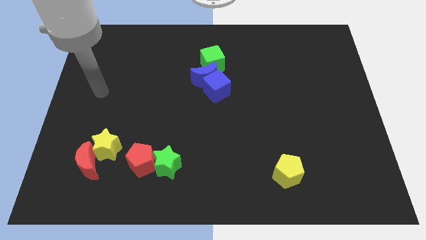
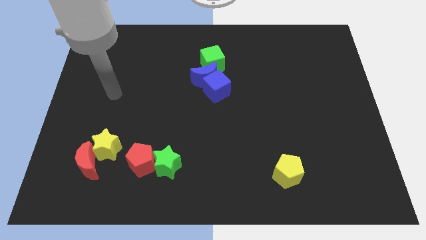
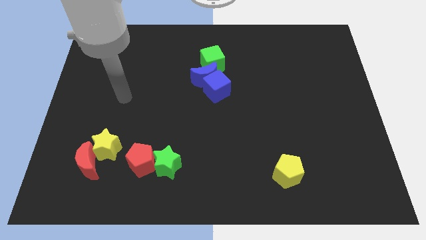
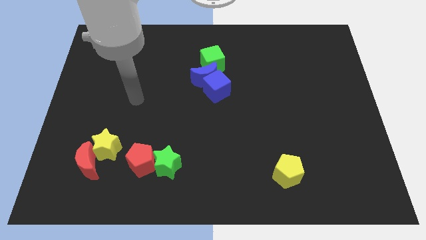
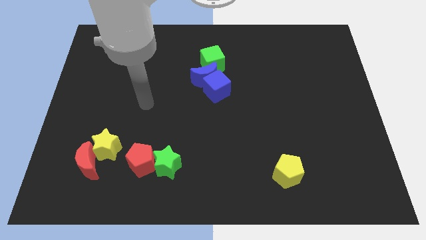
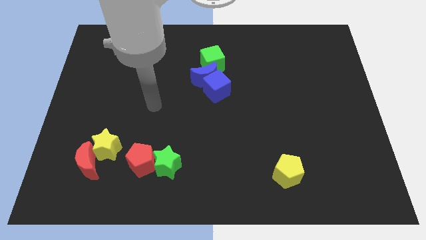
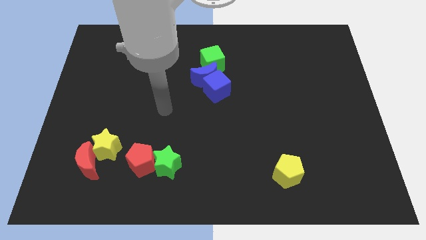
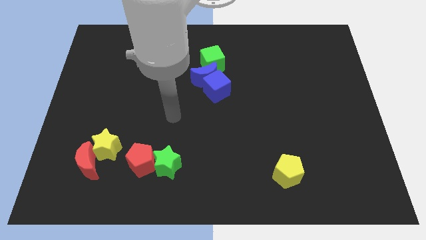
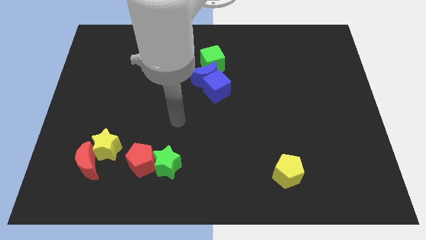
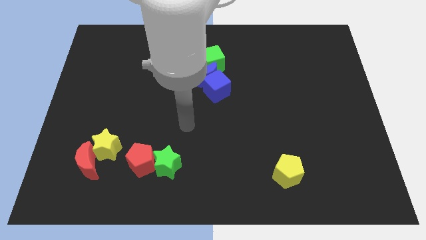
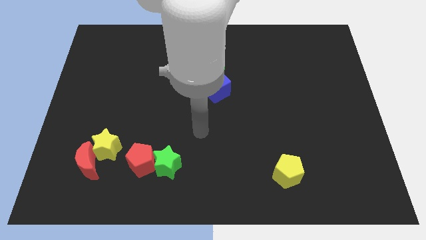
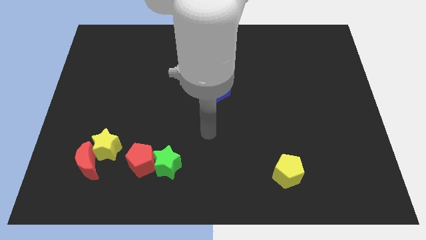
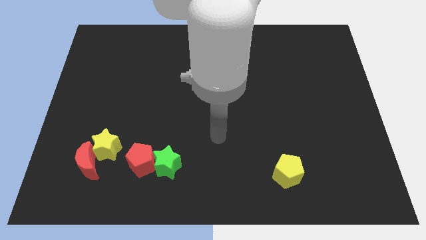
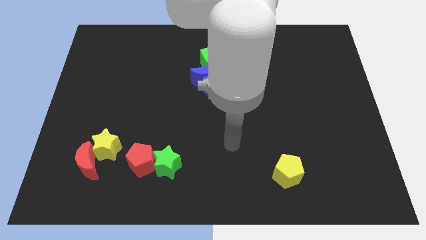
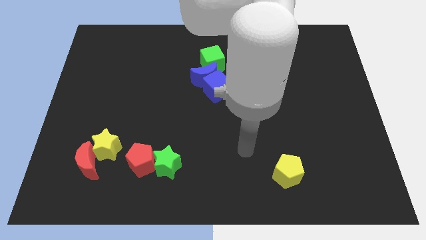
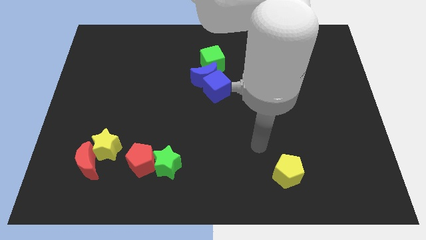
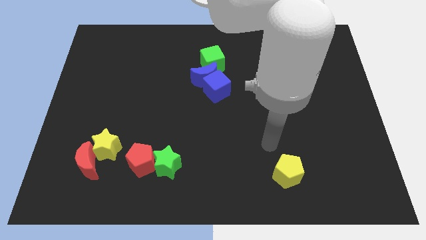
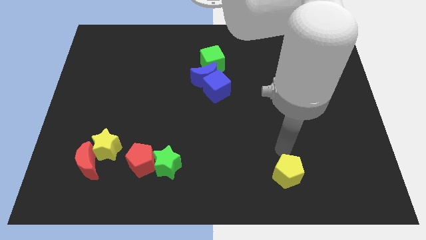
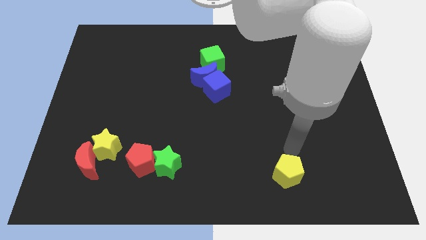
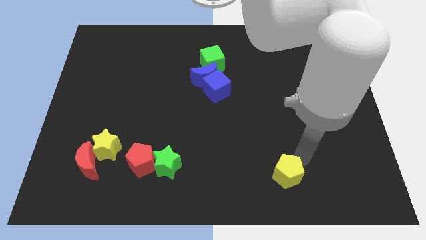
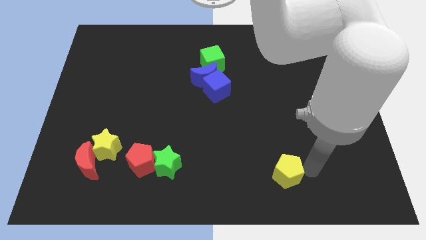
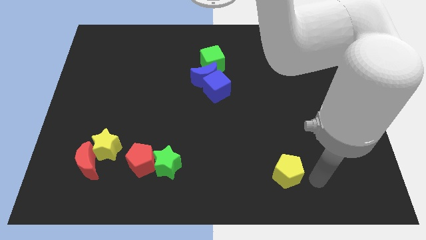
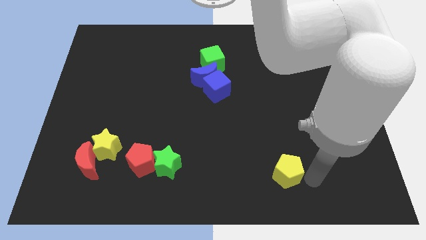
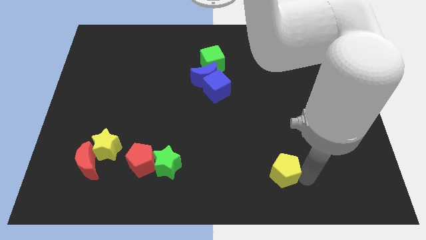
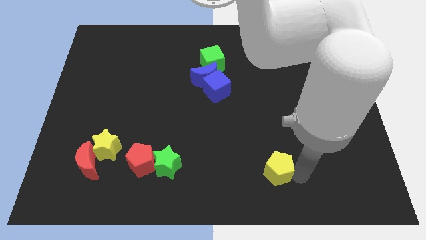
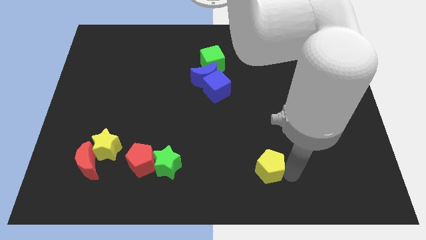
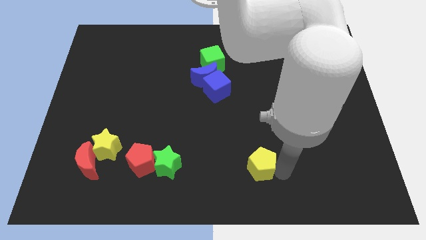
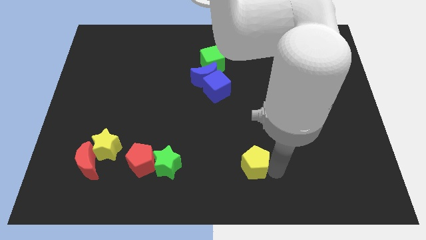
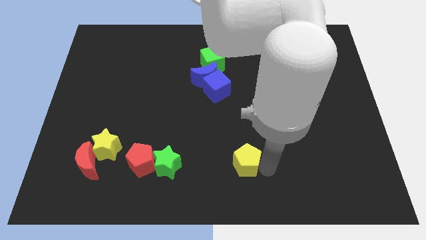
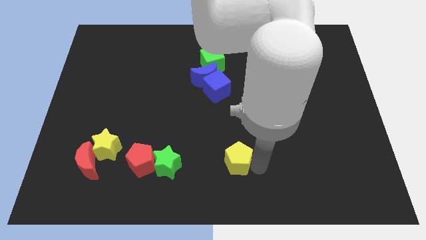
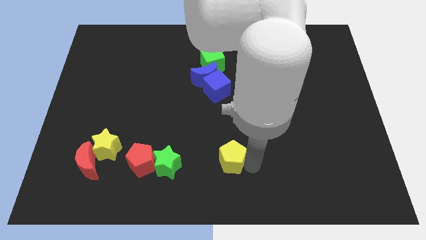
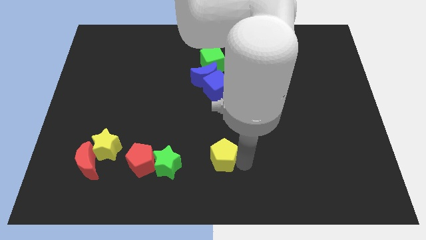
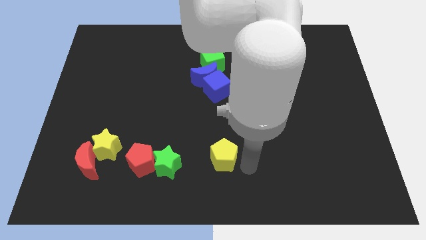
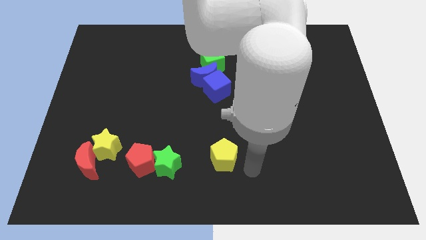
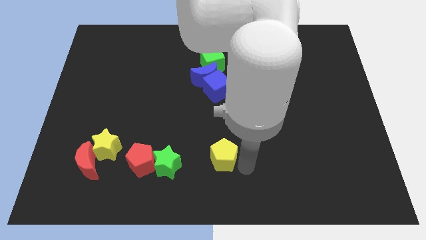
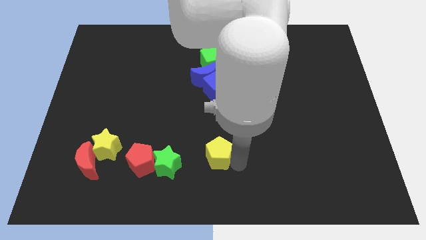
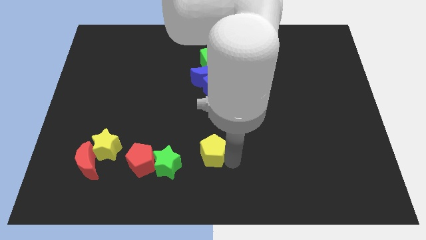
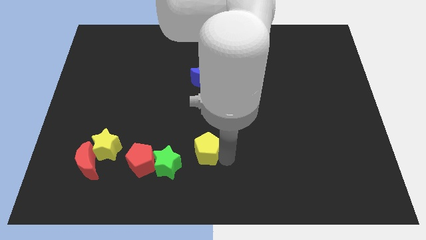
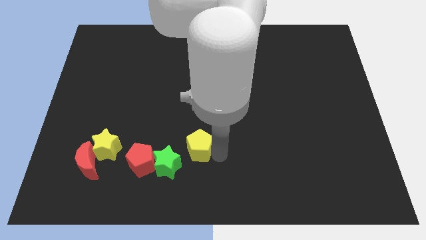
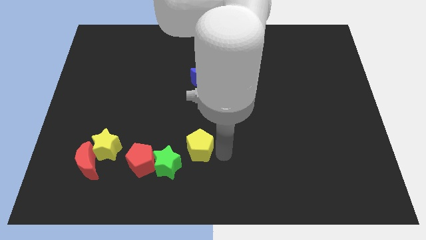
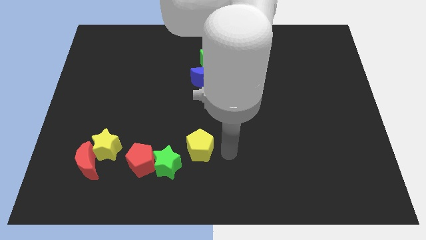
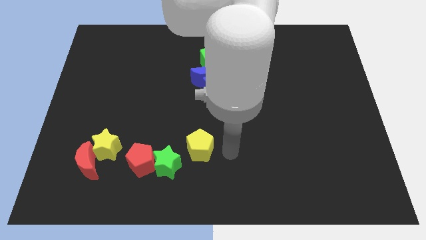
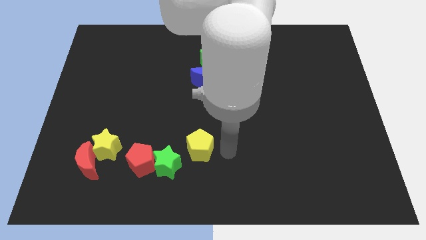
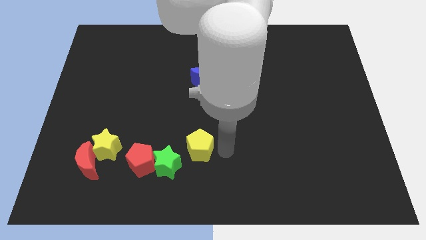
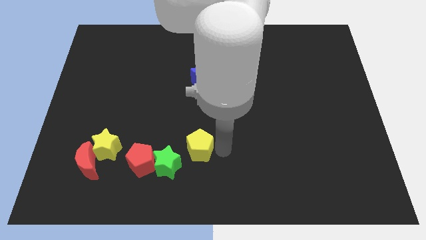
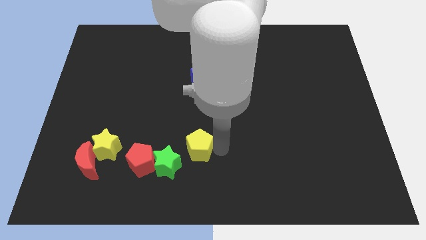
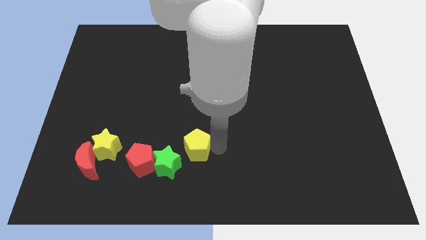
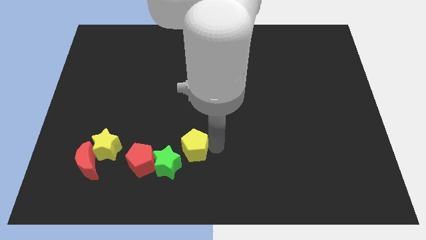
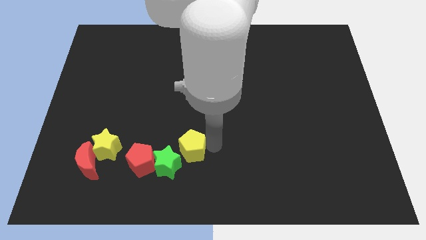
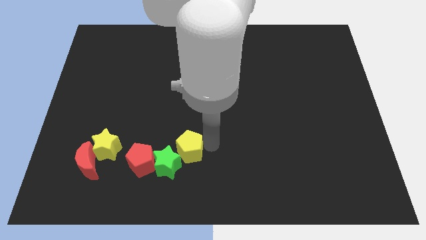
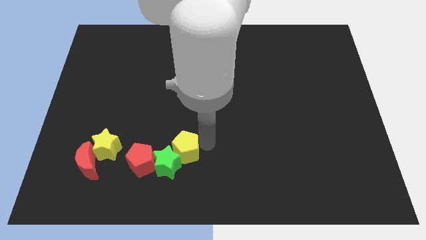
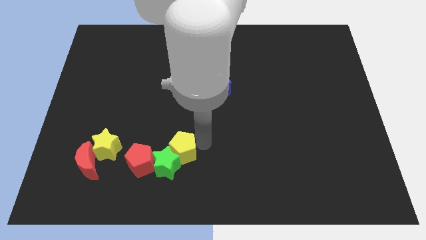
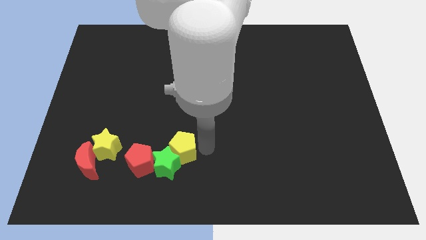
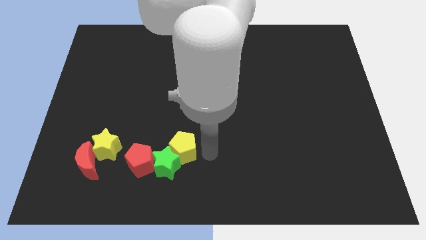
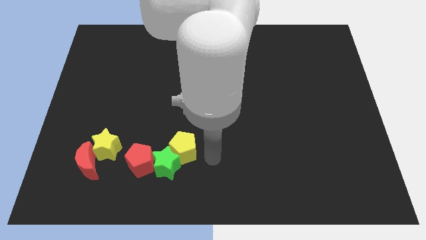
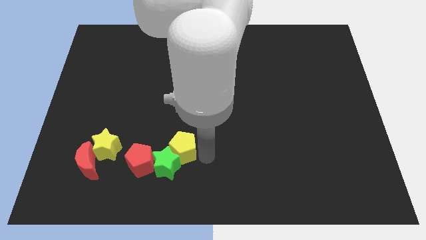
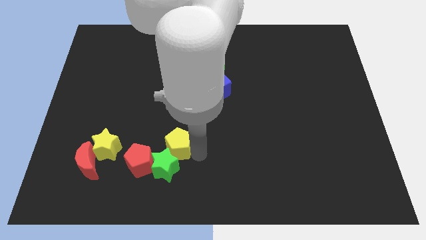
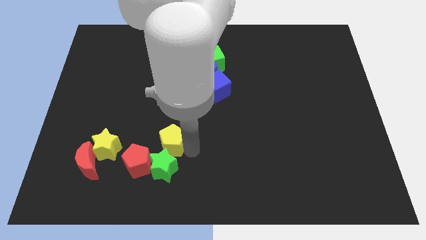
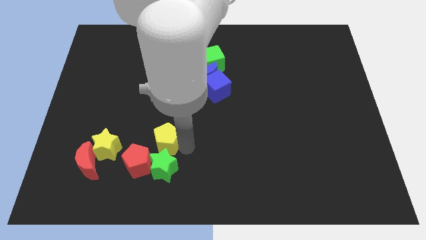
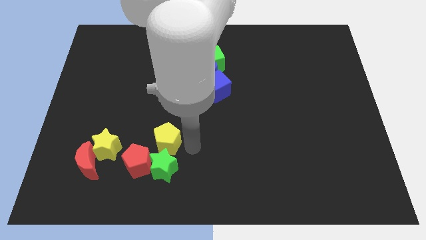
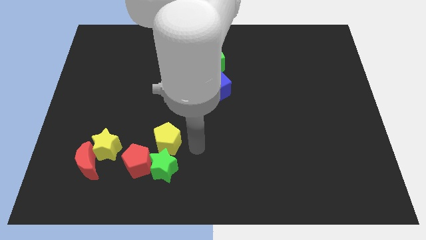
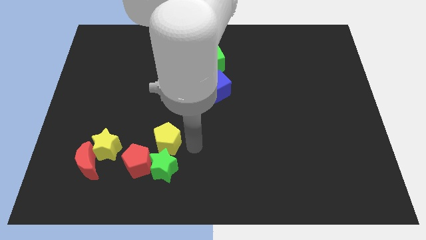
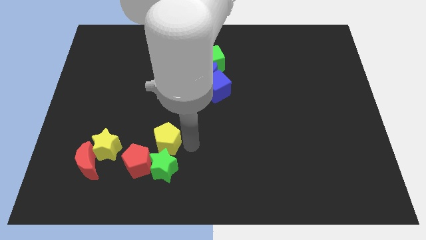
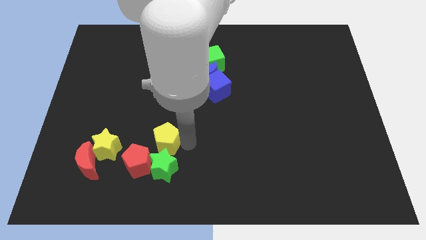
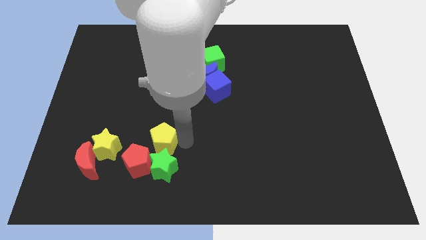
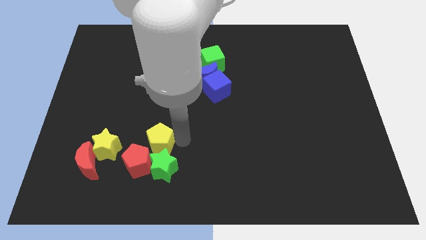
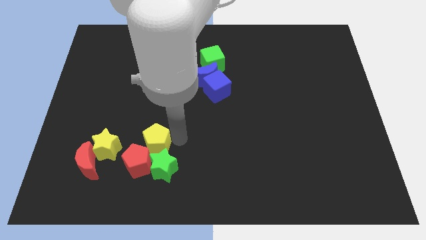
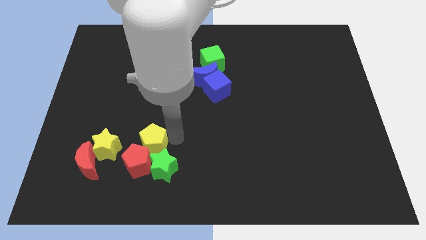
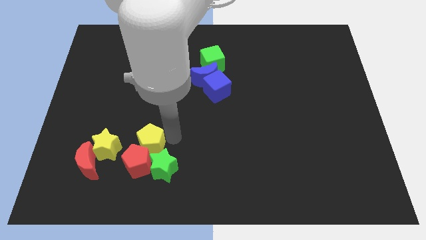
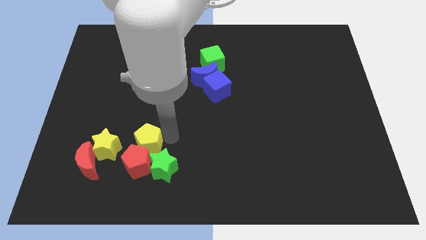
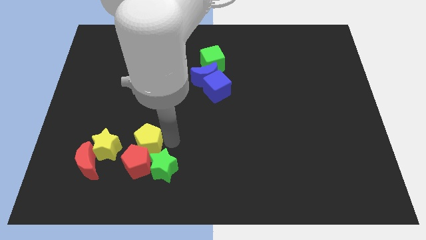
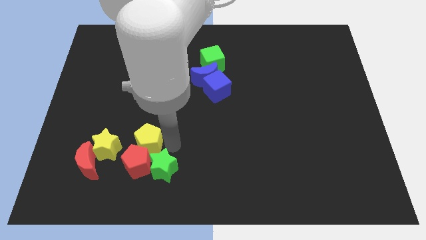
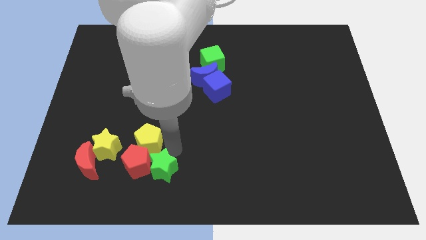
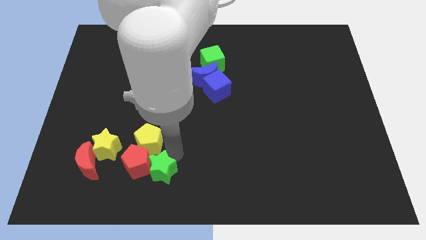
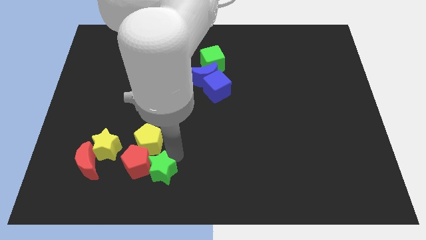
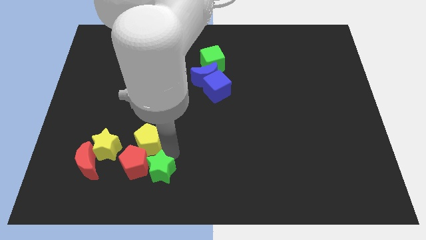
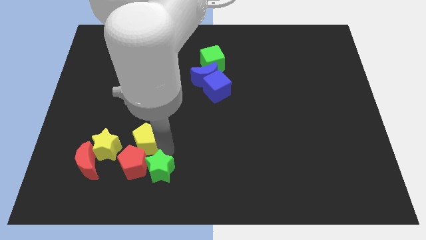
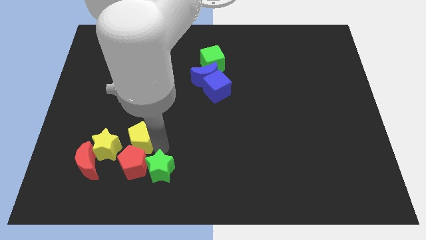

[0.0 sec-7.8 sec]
slide the yellow pentagon to the top left of the red pentagon
